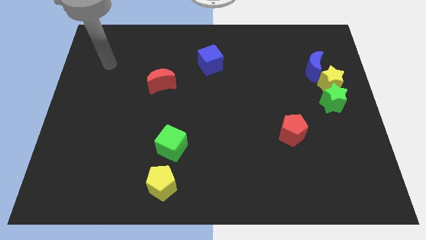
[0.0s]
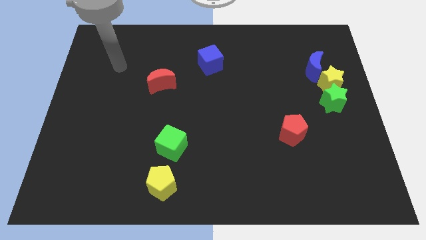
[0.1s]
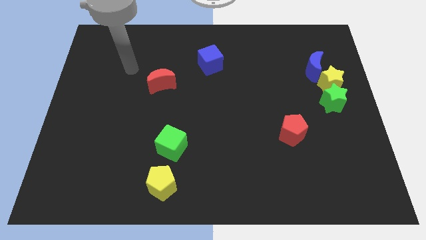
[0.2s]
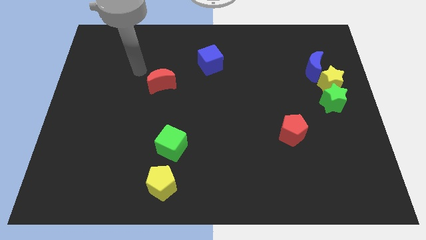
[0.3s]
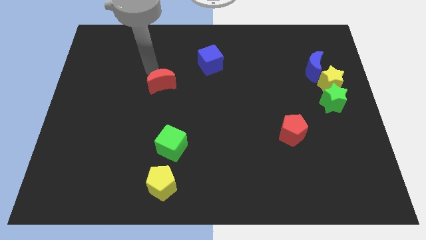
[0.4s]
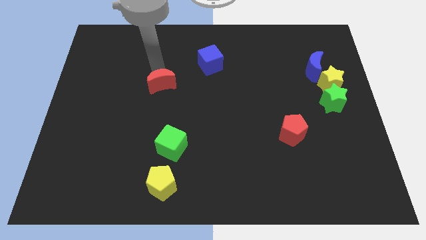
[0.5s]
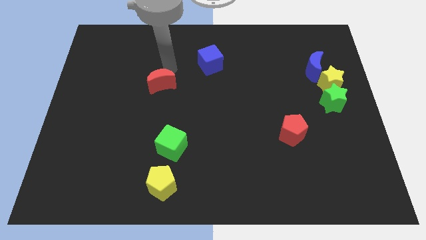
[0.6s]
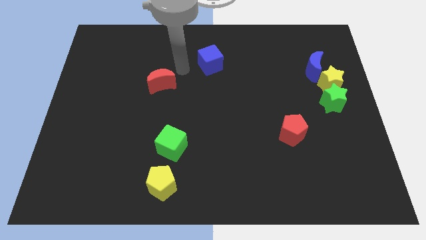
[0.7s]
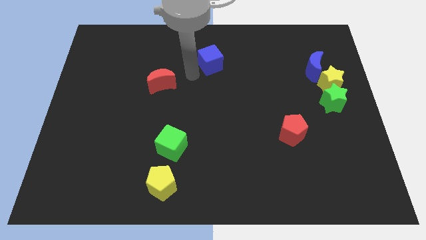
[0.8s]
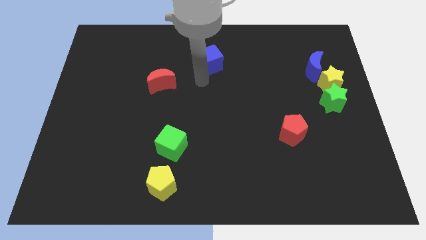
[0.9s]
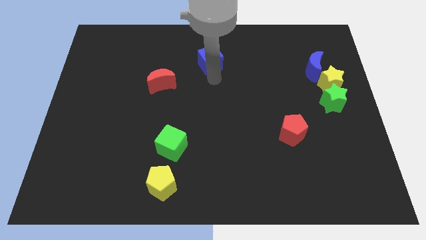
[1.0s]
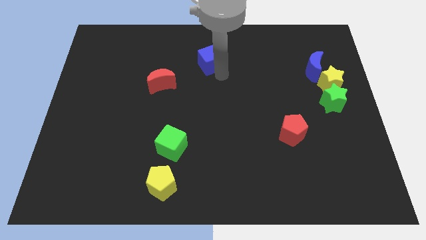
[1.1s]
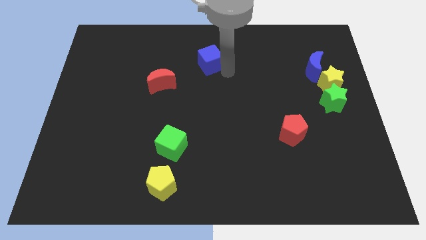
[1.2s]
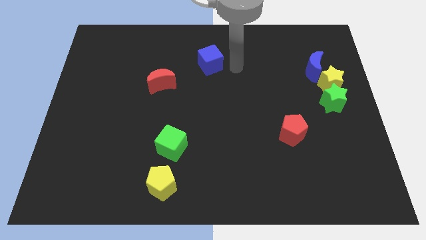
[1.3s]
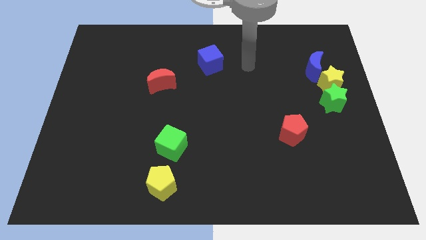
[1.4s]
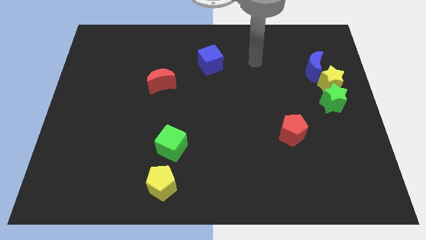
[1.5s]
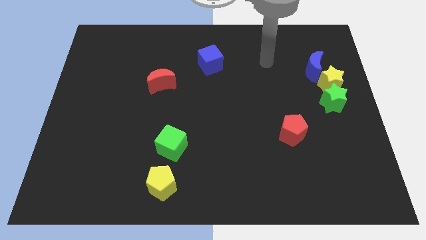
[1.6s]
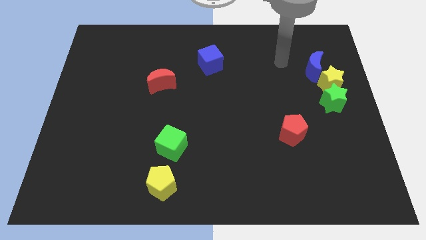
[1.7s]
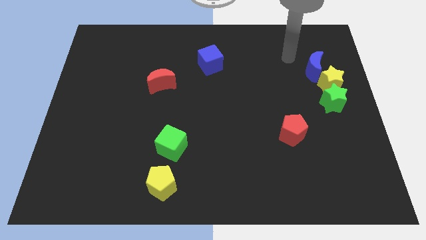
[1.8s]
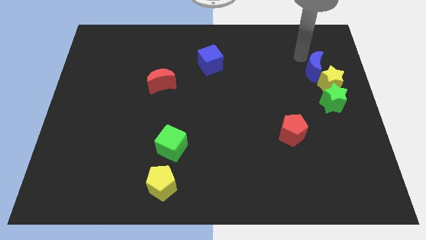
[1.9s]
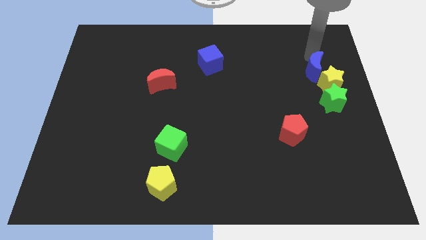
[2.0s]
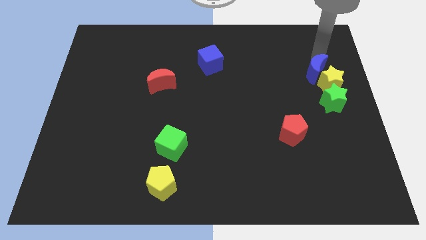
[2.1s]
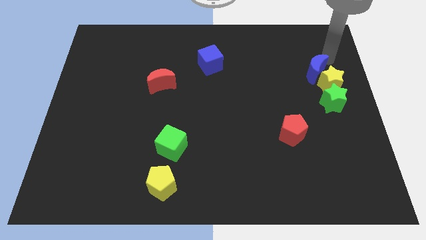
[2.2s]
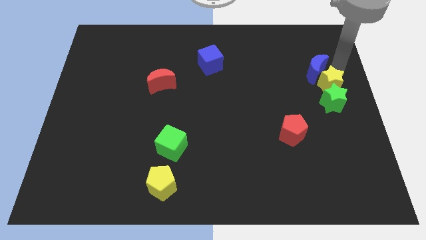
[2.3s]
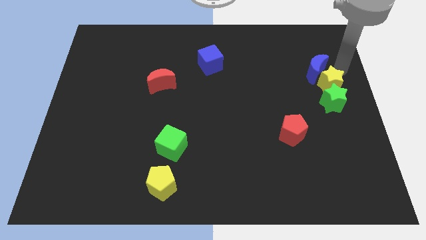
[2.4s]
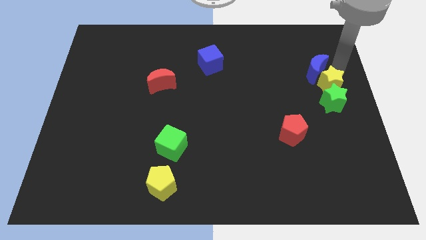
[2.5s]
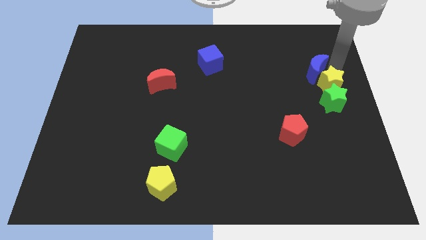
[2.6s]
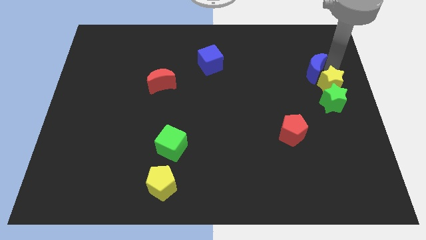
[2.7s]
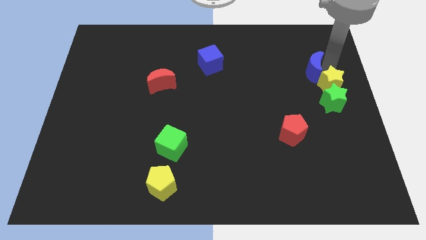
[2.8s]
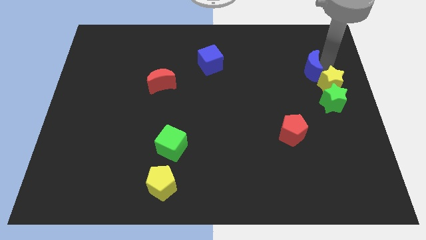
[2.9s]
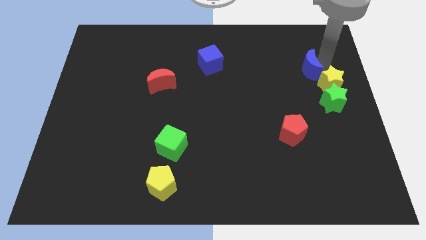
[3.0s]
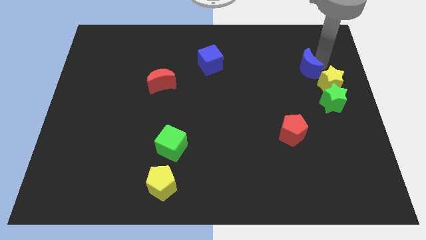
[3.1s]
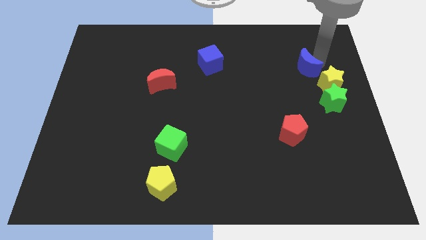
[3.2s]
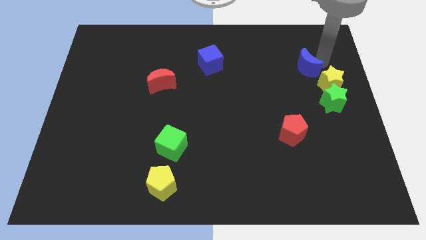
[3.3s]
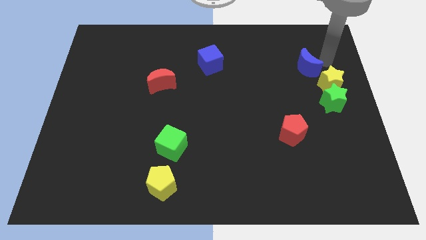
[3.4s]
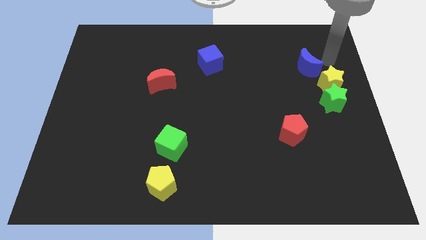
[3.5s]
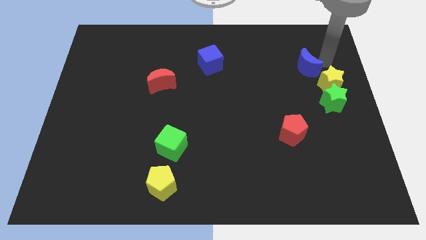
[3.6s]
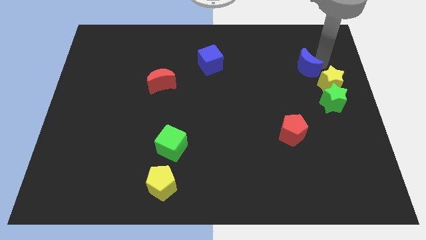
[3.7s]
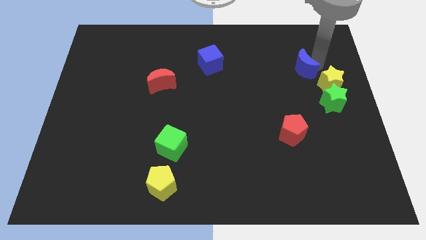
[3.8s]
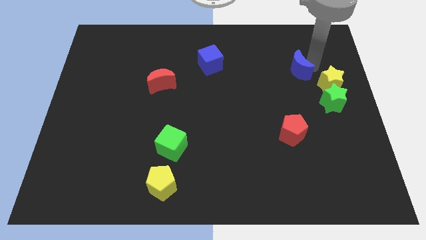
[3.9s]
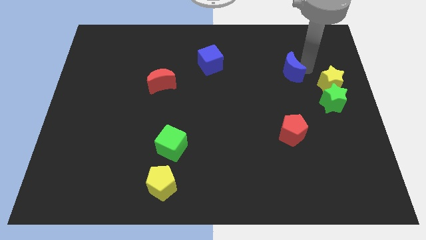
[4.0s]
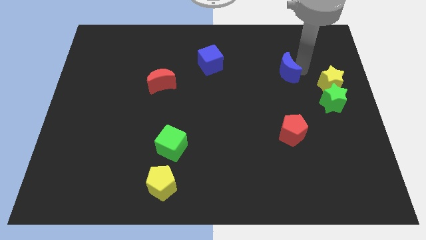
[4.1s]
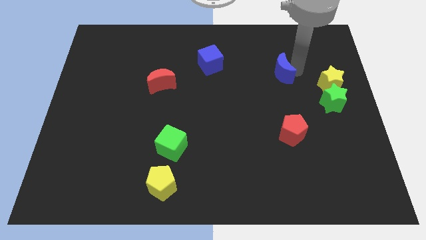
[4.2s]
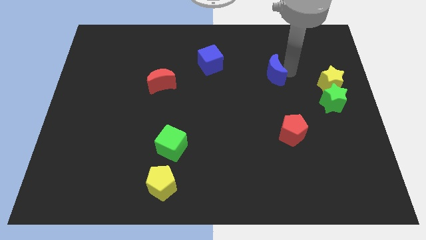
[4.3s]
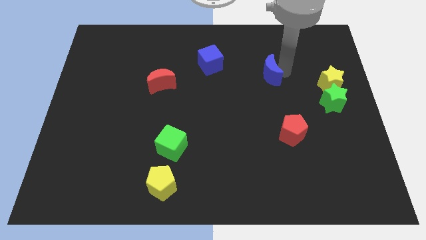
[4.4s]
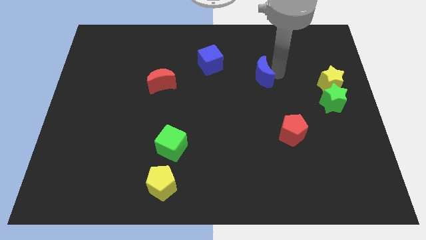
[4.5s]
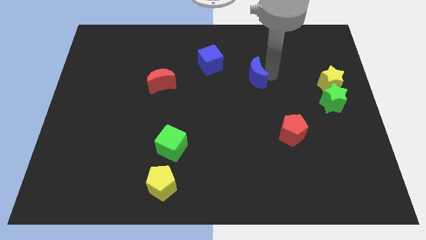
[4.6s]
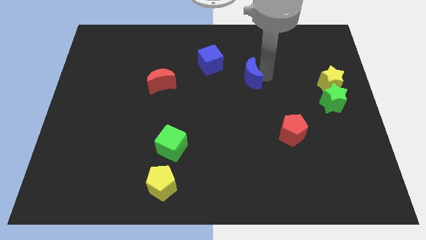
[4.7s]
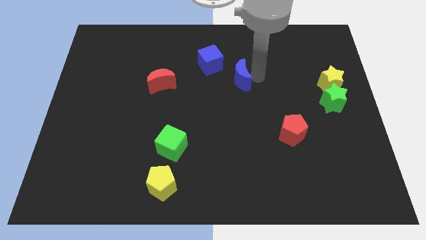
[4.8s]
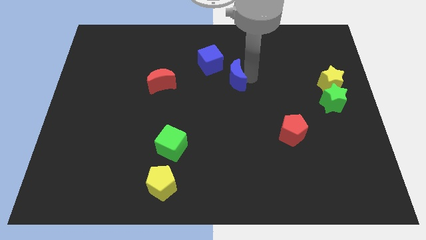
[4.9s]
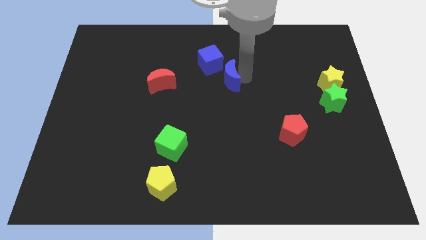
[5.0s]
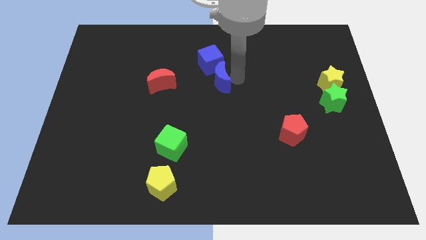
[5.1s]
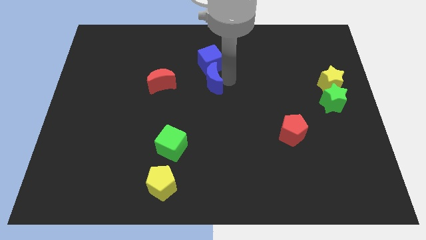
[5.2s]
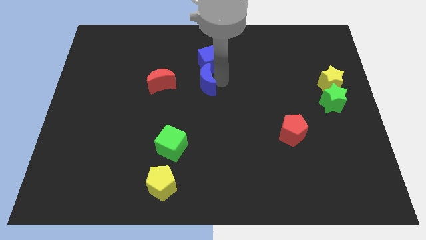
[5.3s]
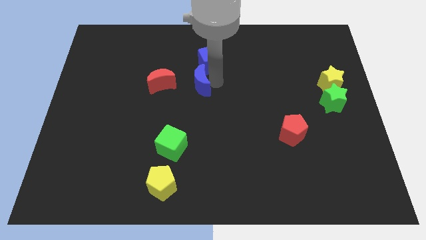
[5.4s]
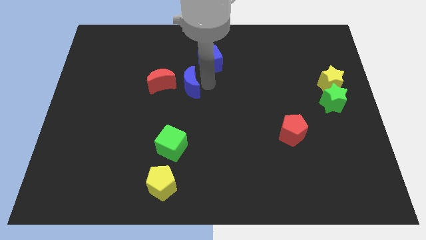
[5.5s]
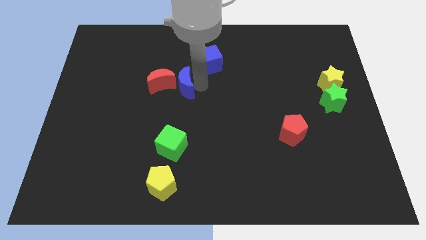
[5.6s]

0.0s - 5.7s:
move the blue moon towards the red moon

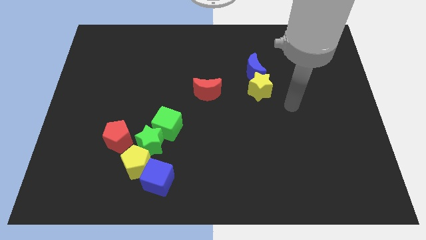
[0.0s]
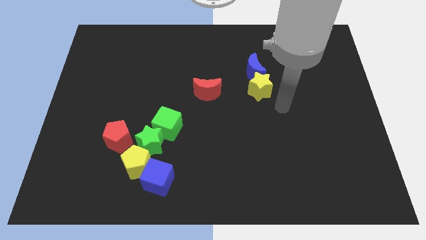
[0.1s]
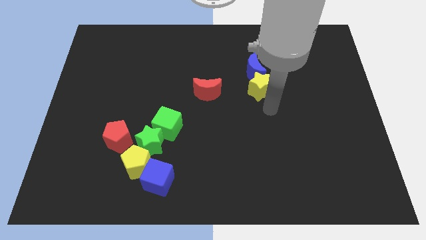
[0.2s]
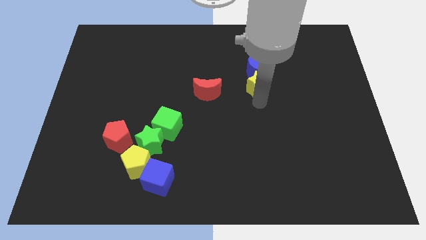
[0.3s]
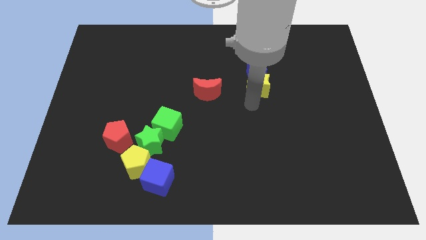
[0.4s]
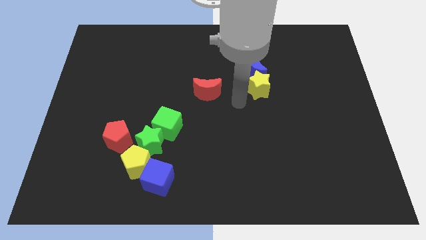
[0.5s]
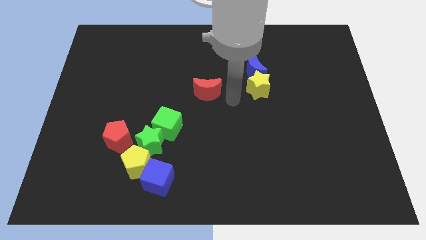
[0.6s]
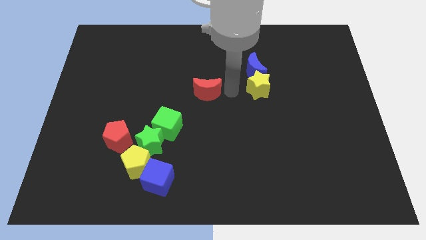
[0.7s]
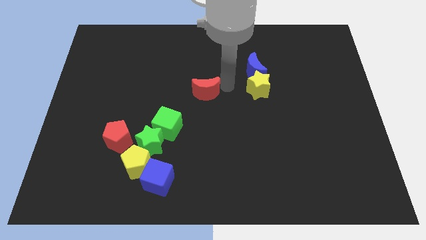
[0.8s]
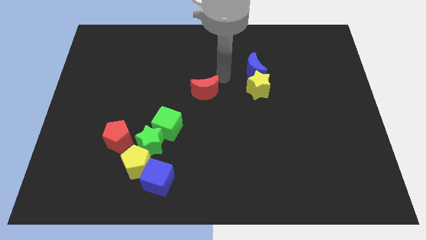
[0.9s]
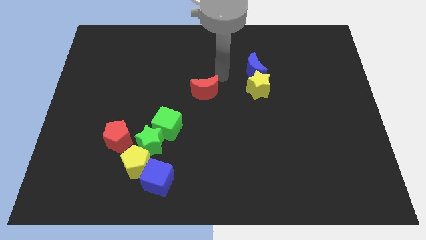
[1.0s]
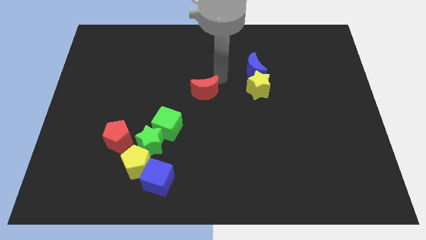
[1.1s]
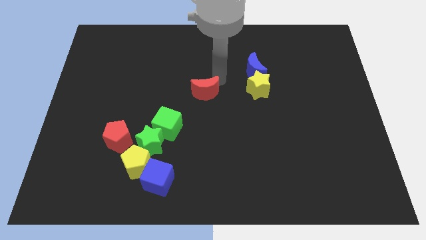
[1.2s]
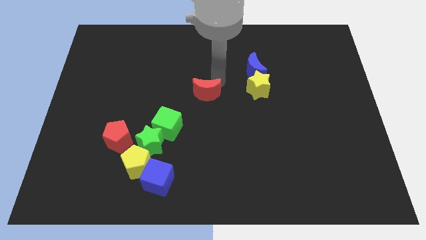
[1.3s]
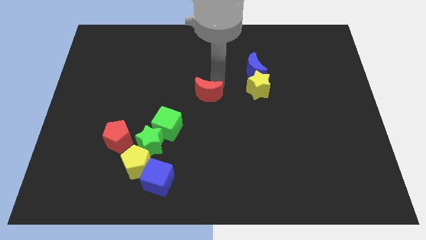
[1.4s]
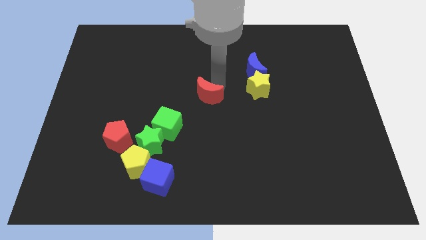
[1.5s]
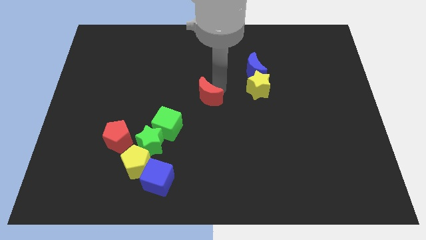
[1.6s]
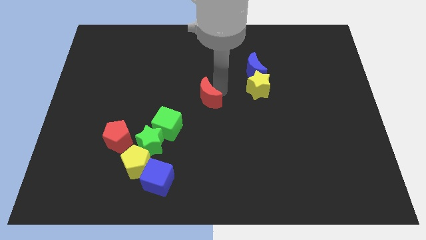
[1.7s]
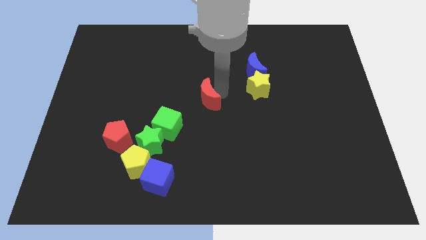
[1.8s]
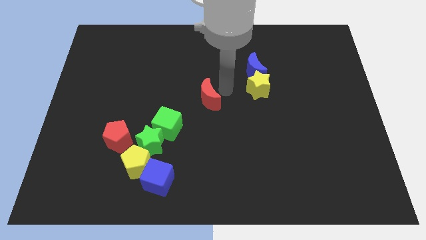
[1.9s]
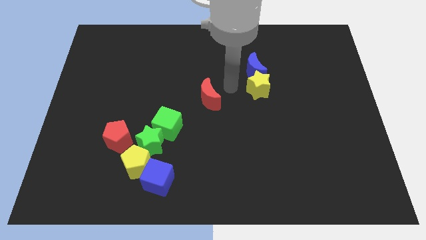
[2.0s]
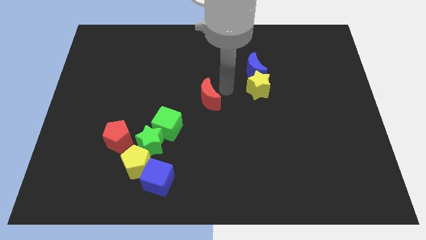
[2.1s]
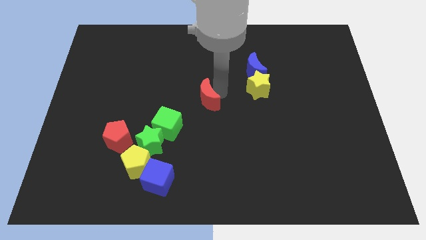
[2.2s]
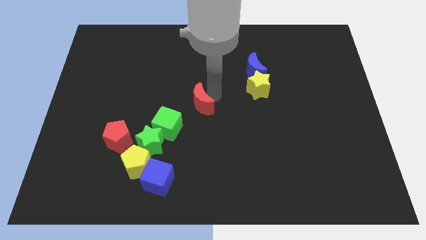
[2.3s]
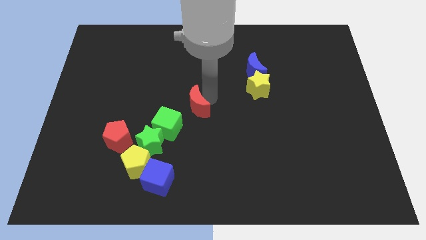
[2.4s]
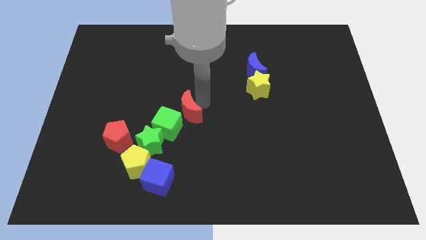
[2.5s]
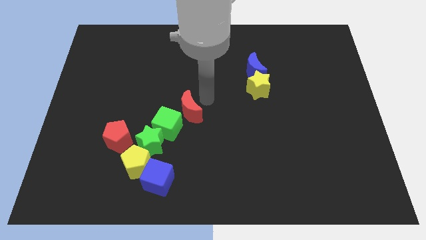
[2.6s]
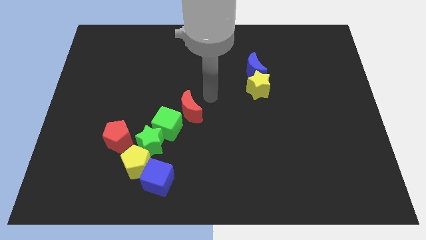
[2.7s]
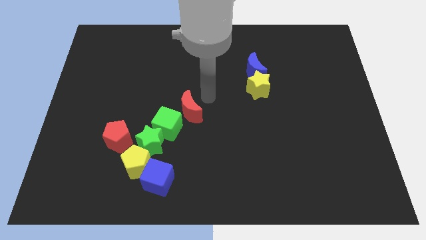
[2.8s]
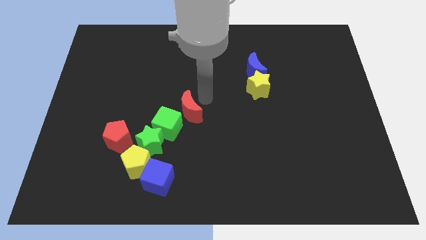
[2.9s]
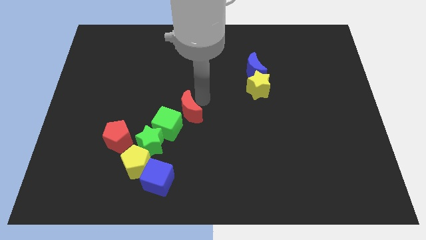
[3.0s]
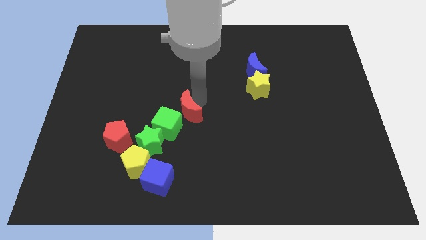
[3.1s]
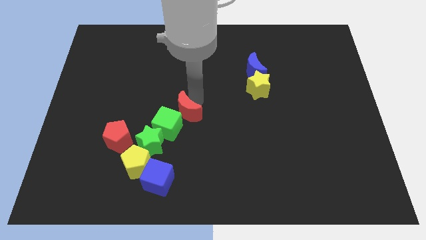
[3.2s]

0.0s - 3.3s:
move the red moon close to the green cube
